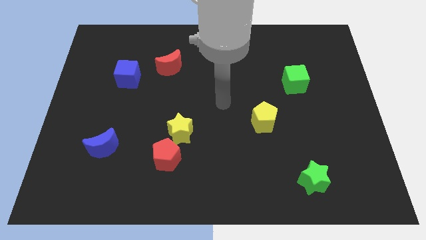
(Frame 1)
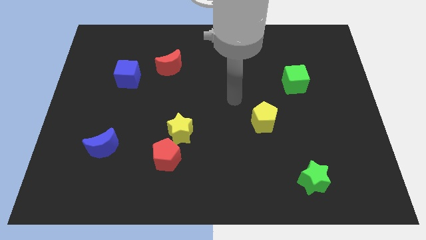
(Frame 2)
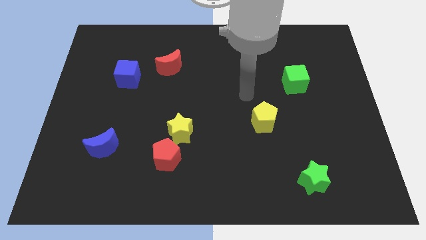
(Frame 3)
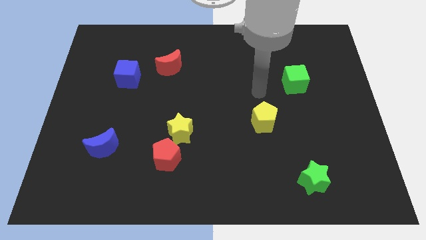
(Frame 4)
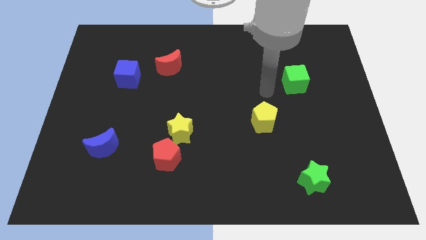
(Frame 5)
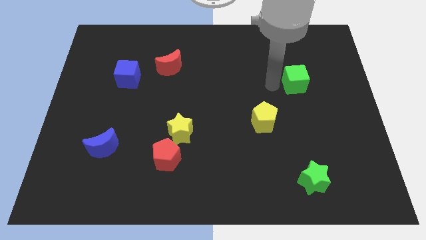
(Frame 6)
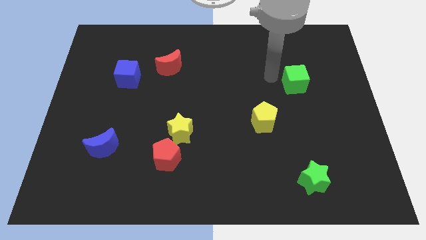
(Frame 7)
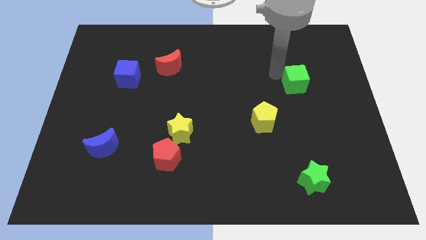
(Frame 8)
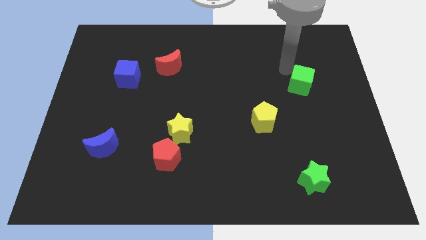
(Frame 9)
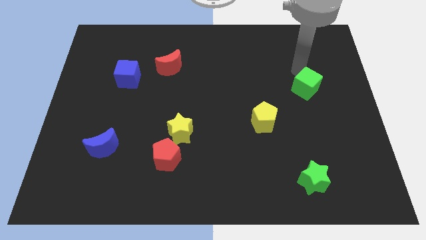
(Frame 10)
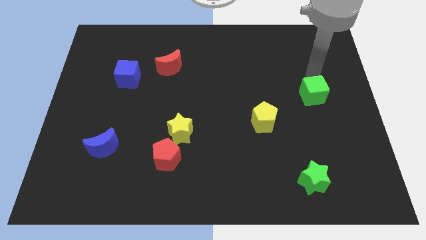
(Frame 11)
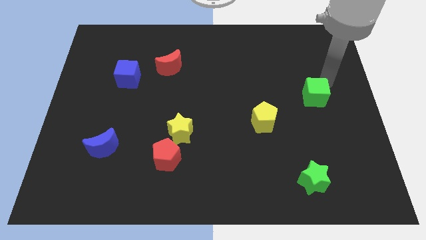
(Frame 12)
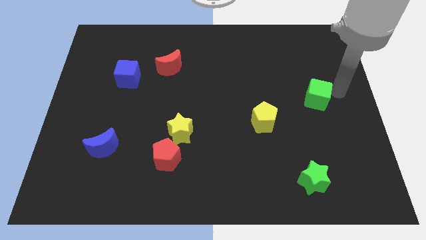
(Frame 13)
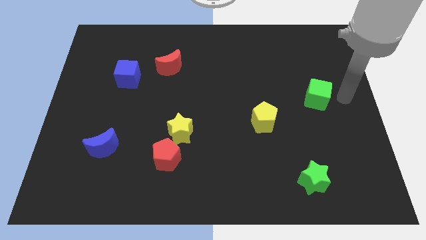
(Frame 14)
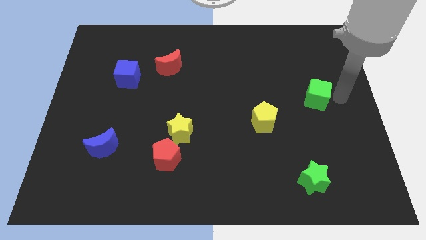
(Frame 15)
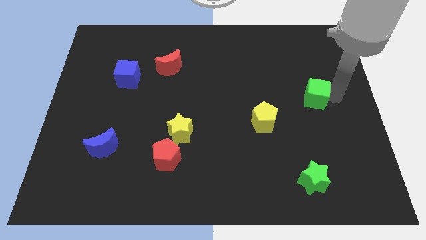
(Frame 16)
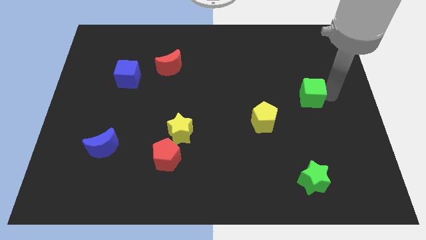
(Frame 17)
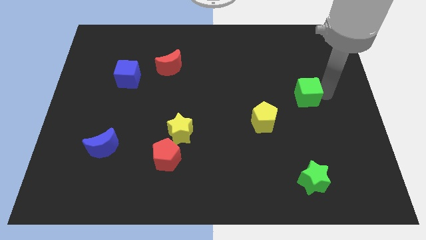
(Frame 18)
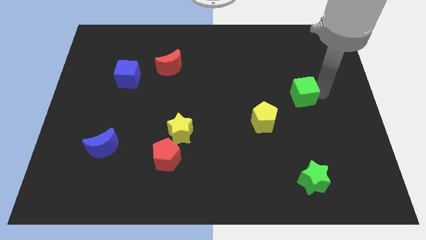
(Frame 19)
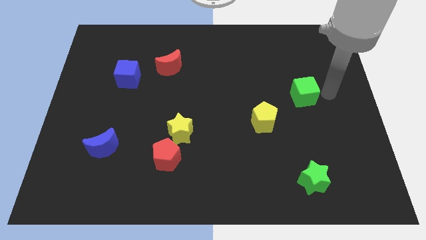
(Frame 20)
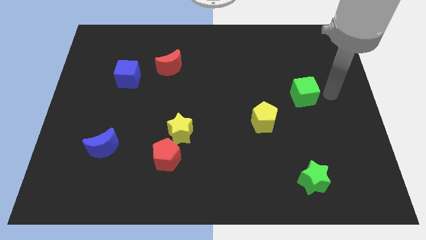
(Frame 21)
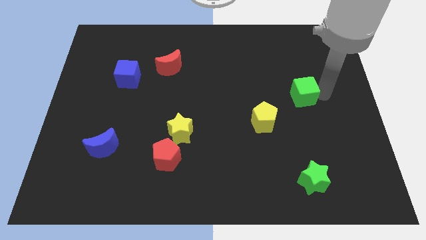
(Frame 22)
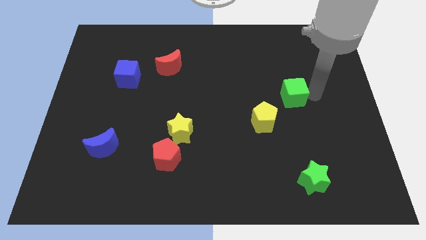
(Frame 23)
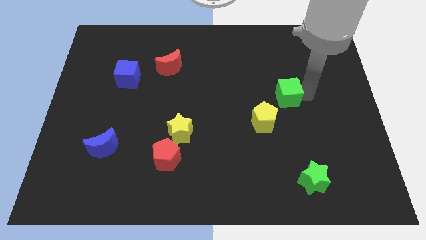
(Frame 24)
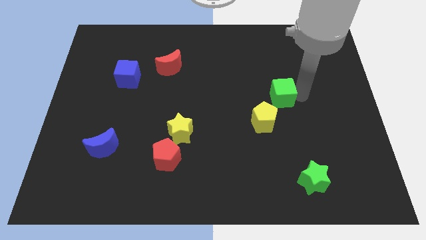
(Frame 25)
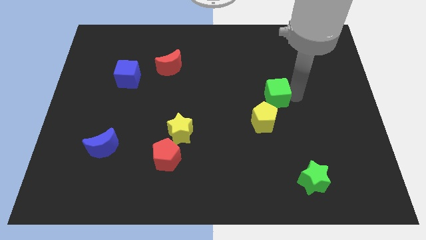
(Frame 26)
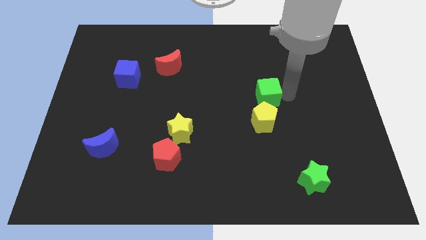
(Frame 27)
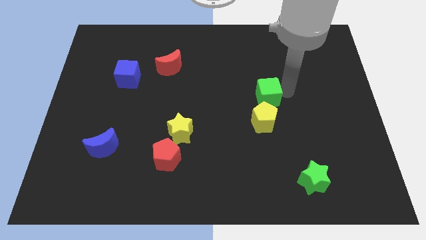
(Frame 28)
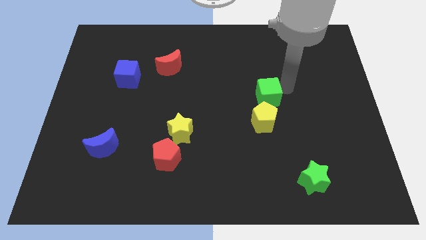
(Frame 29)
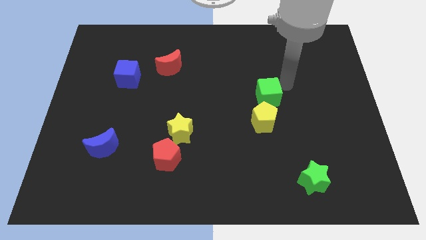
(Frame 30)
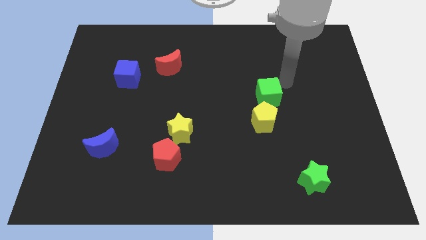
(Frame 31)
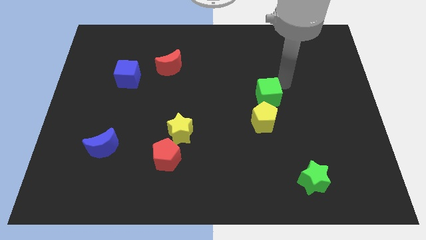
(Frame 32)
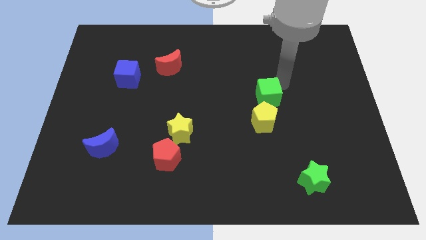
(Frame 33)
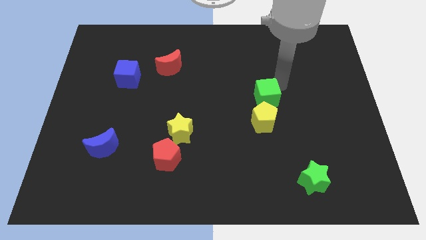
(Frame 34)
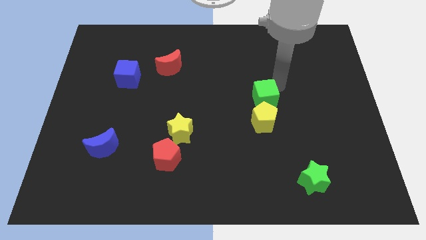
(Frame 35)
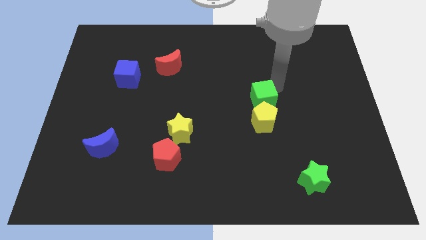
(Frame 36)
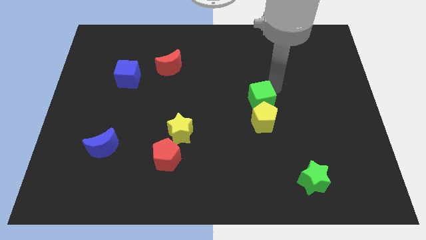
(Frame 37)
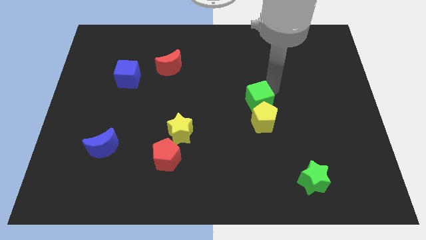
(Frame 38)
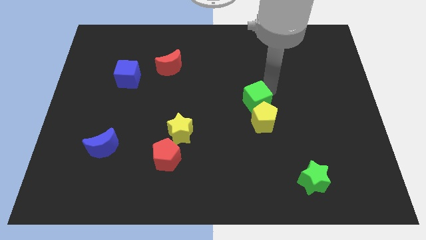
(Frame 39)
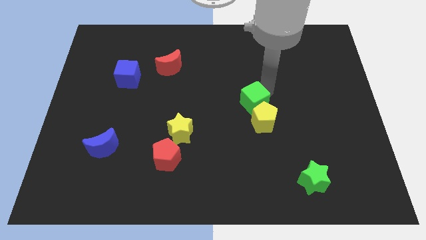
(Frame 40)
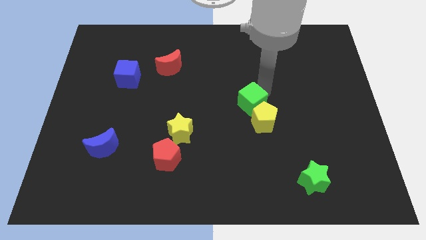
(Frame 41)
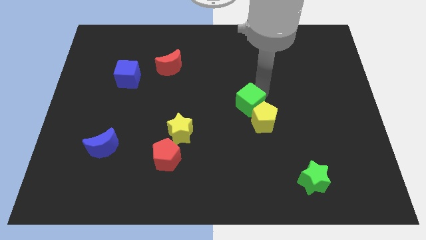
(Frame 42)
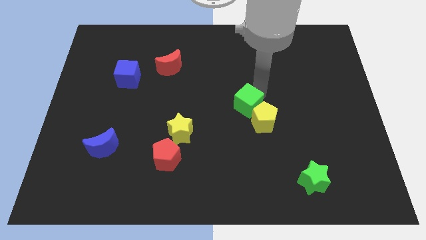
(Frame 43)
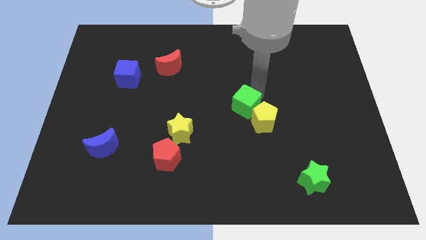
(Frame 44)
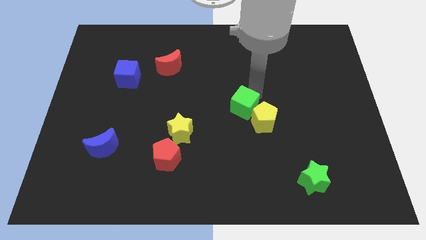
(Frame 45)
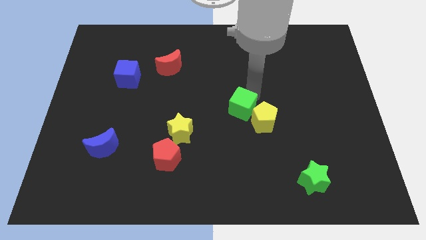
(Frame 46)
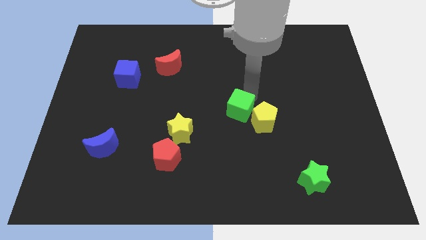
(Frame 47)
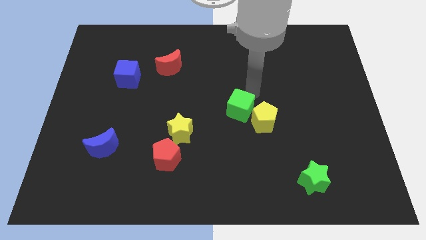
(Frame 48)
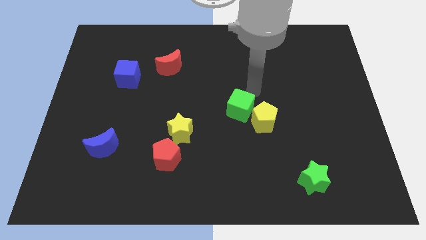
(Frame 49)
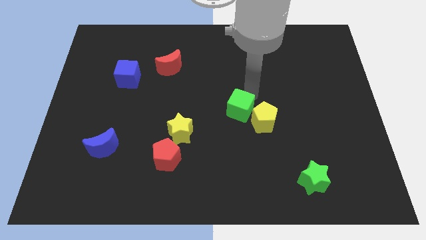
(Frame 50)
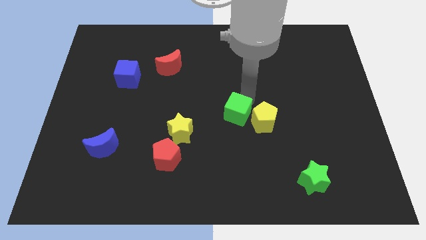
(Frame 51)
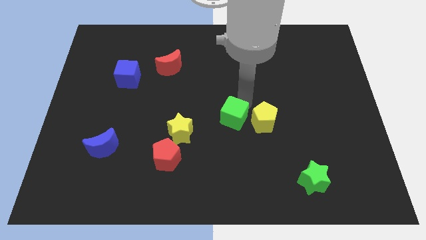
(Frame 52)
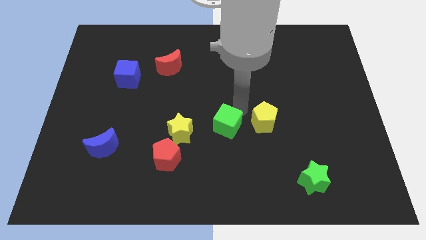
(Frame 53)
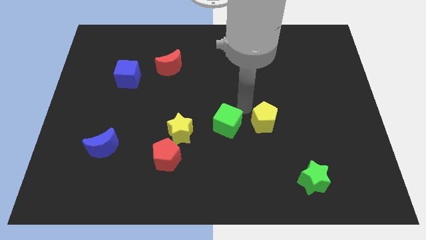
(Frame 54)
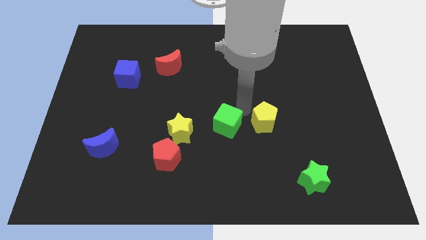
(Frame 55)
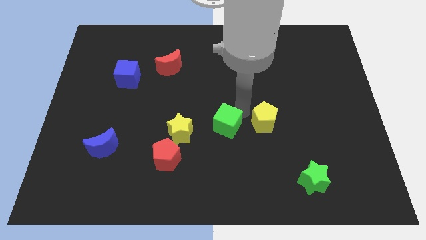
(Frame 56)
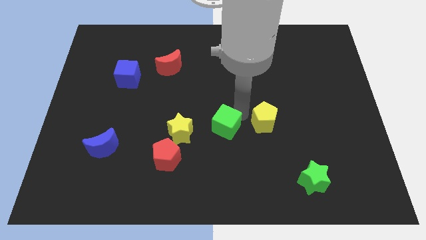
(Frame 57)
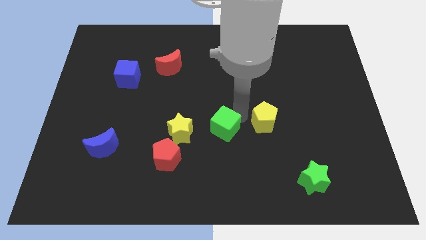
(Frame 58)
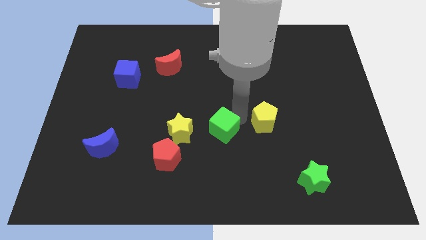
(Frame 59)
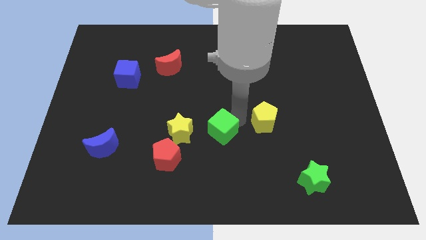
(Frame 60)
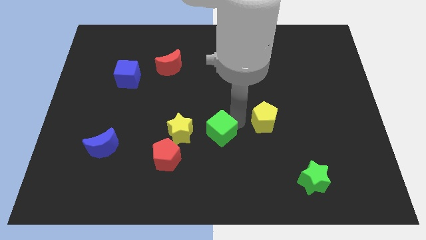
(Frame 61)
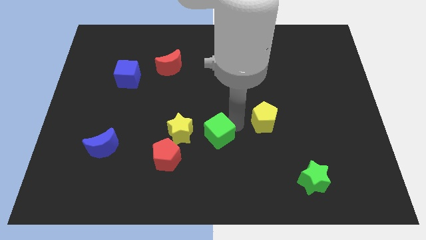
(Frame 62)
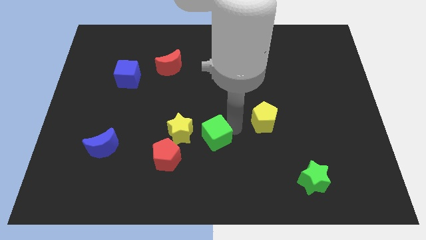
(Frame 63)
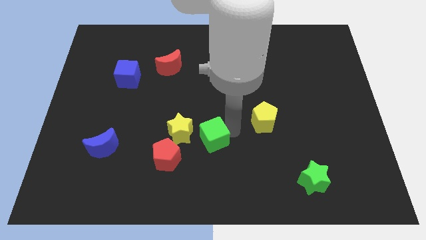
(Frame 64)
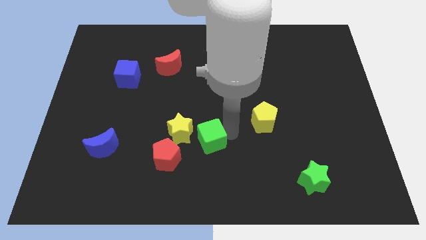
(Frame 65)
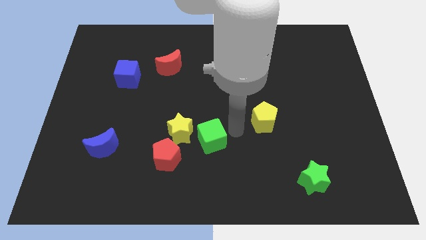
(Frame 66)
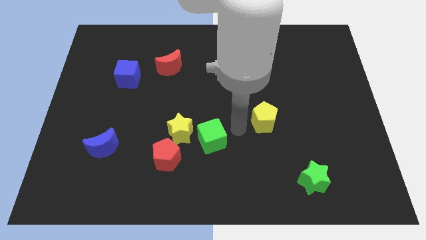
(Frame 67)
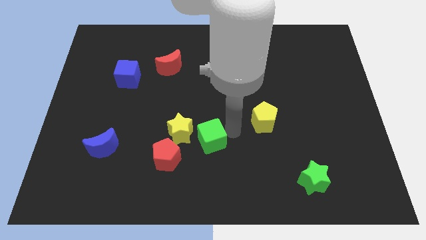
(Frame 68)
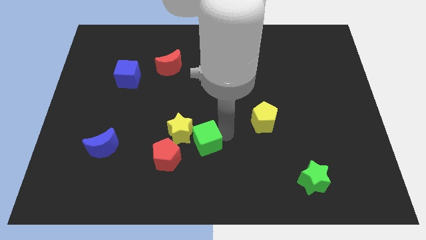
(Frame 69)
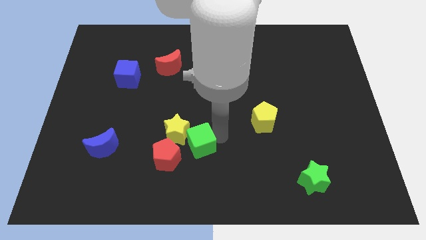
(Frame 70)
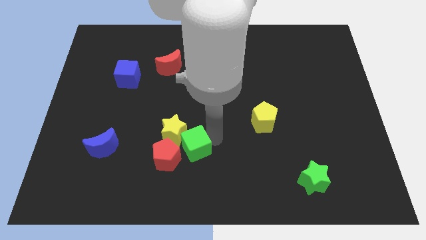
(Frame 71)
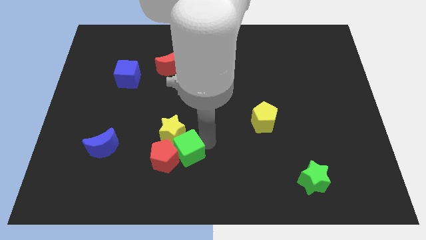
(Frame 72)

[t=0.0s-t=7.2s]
move the green cube close to the red pentagon

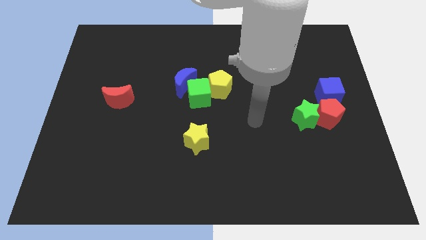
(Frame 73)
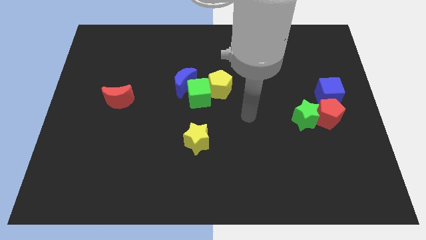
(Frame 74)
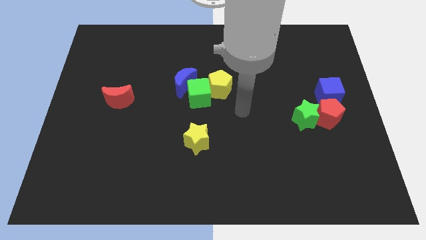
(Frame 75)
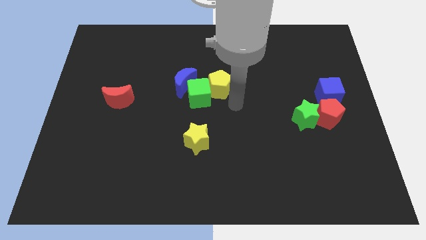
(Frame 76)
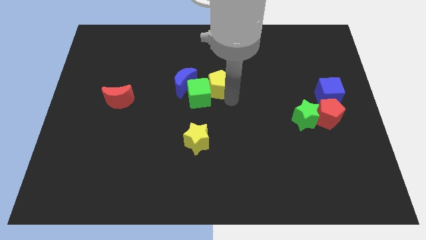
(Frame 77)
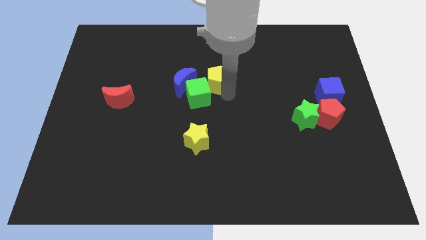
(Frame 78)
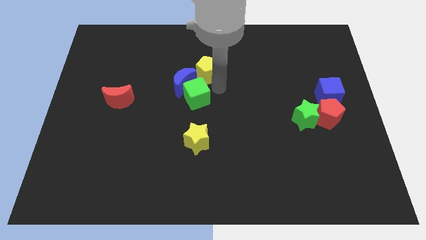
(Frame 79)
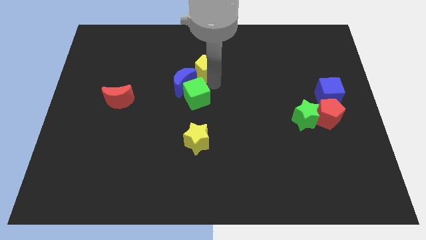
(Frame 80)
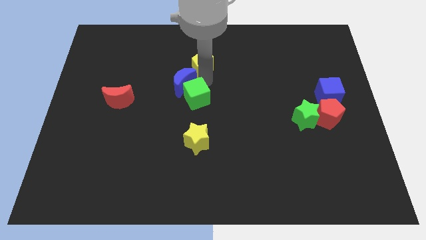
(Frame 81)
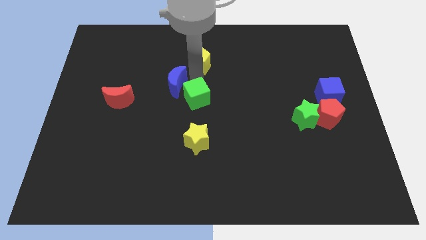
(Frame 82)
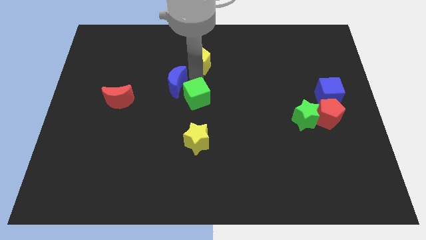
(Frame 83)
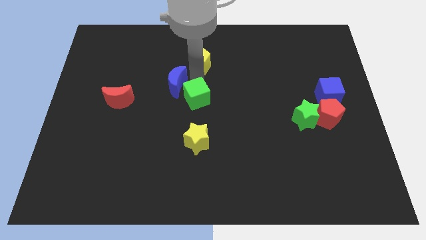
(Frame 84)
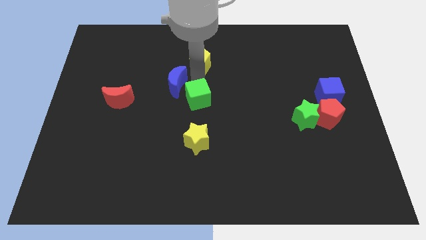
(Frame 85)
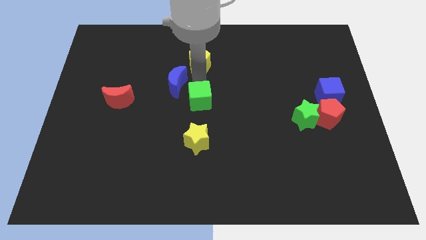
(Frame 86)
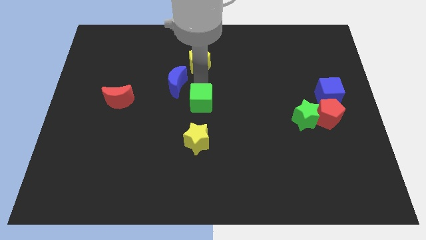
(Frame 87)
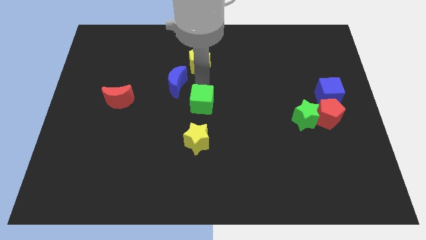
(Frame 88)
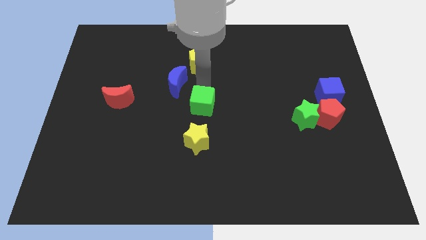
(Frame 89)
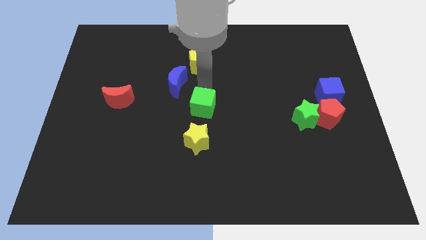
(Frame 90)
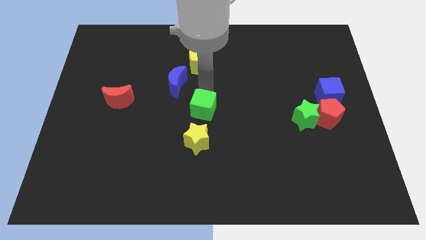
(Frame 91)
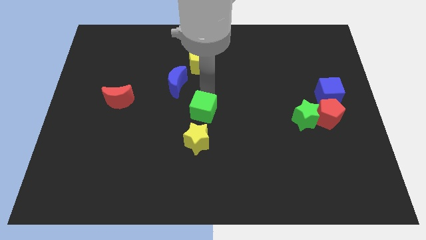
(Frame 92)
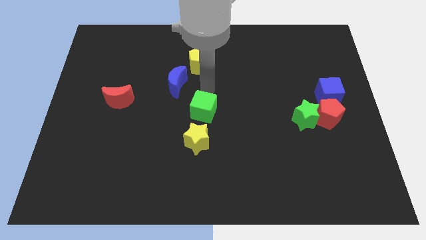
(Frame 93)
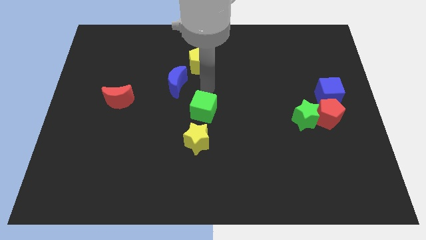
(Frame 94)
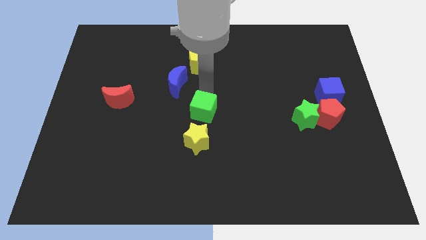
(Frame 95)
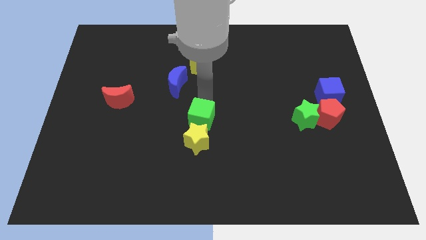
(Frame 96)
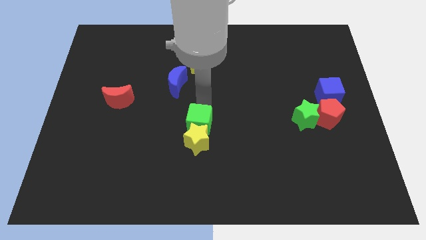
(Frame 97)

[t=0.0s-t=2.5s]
slide the green cube to the yellow star
